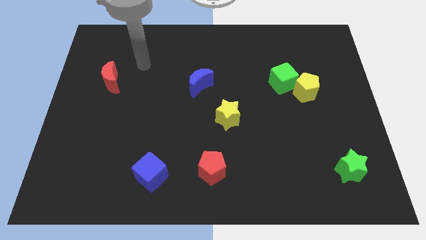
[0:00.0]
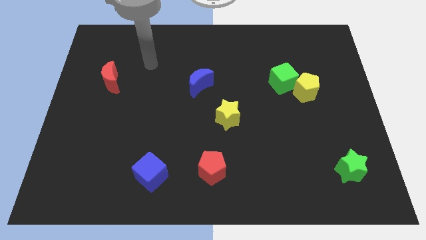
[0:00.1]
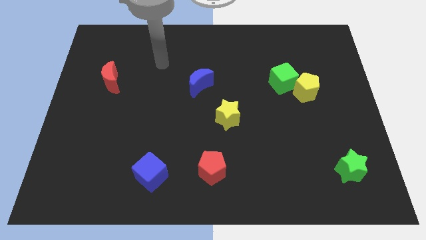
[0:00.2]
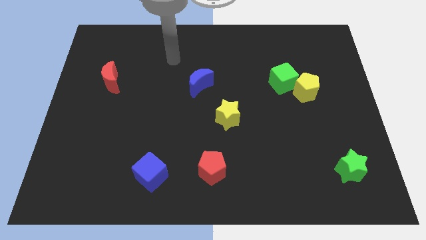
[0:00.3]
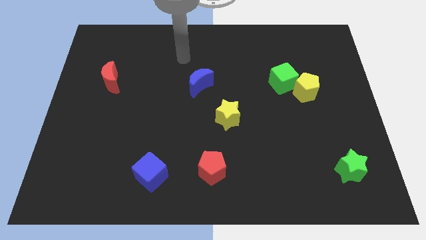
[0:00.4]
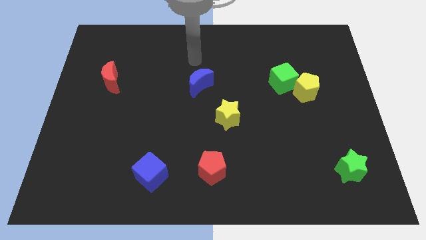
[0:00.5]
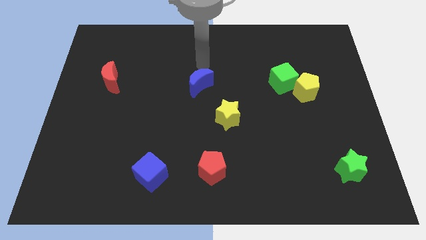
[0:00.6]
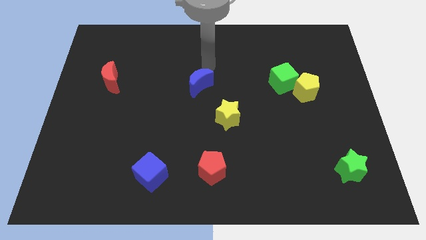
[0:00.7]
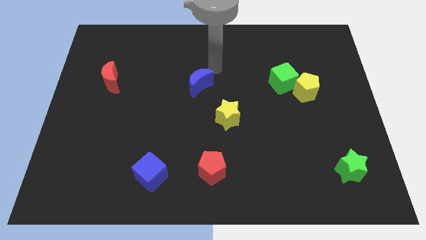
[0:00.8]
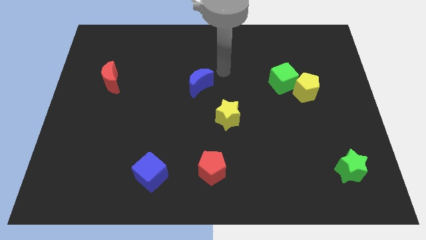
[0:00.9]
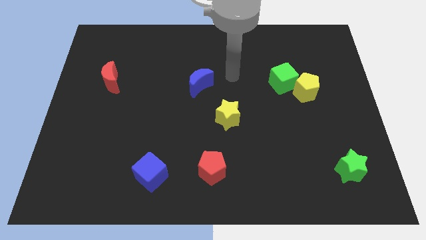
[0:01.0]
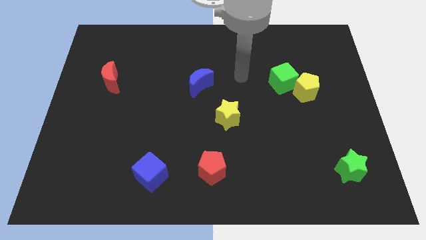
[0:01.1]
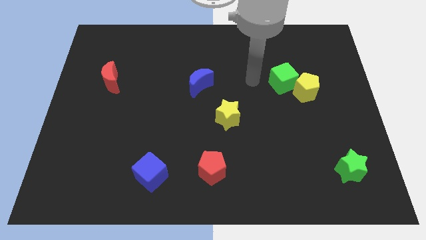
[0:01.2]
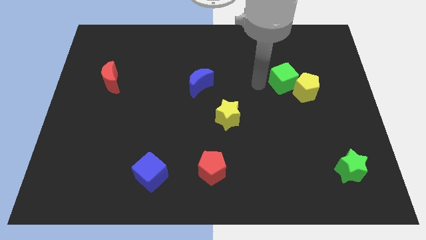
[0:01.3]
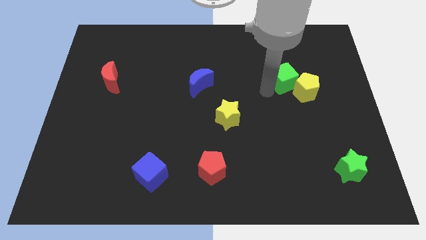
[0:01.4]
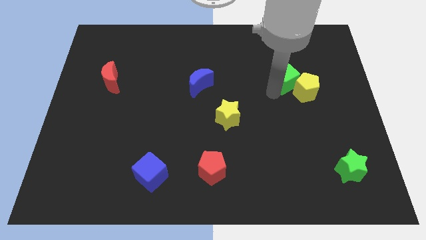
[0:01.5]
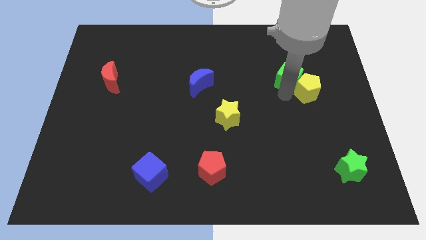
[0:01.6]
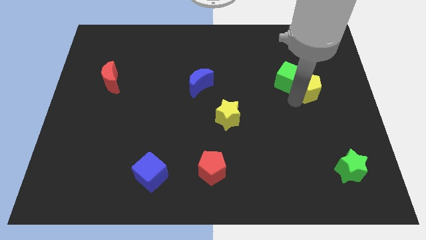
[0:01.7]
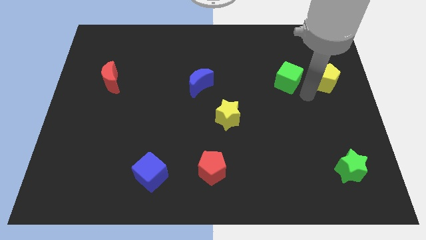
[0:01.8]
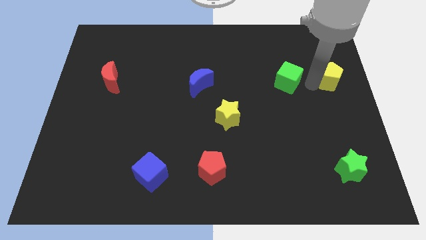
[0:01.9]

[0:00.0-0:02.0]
pull the green cube apart from the yellow pentagon

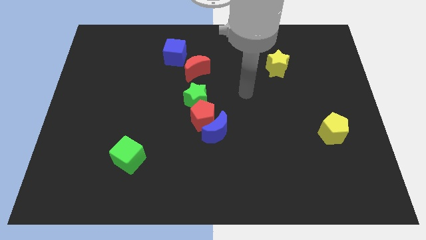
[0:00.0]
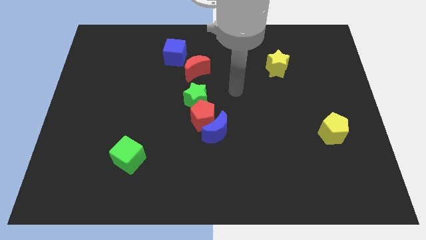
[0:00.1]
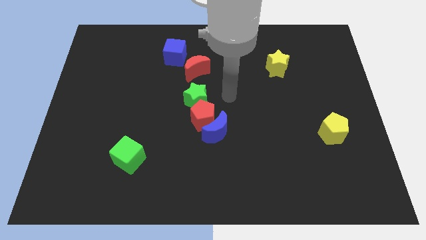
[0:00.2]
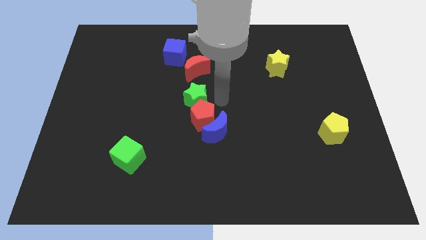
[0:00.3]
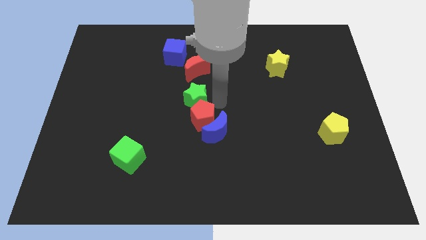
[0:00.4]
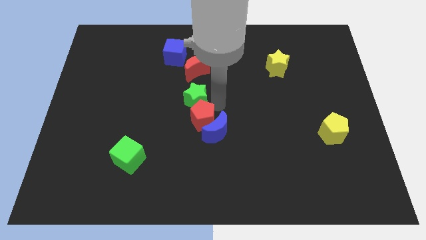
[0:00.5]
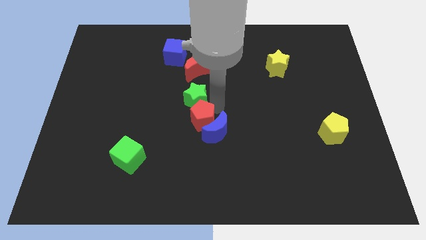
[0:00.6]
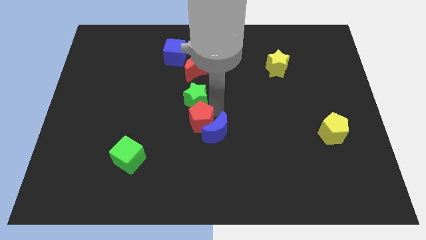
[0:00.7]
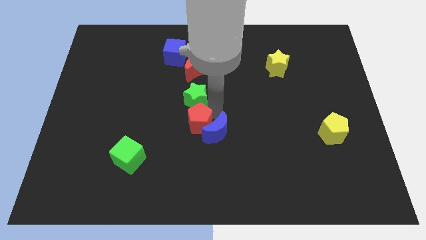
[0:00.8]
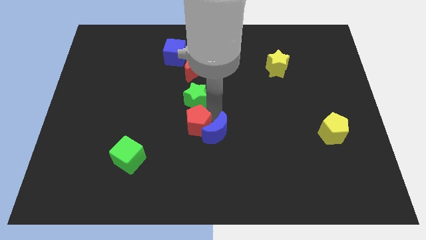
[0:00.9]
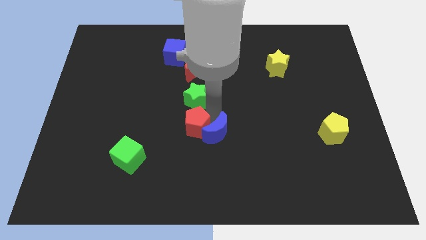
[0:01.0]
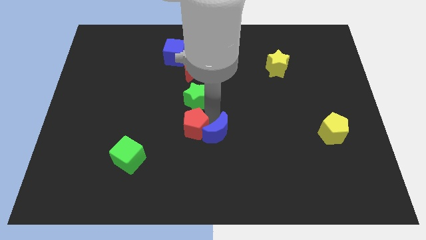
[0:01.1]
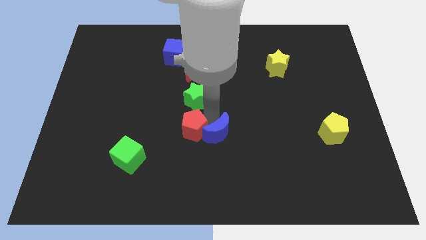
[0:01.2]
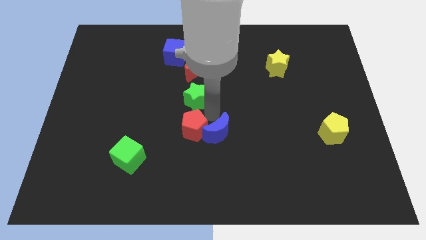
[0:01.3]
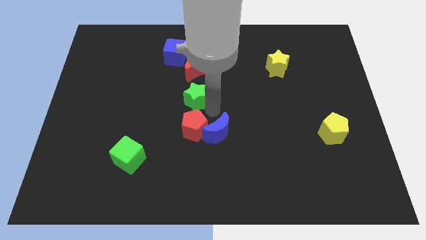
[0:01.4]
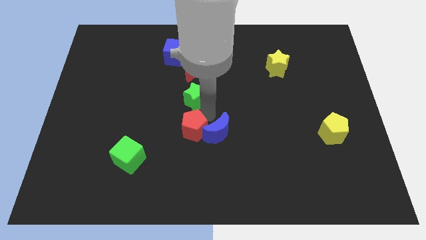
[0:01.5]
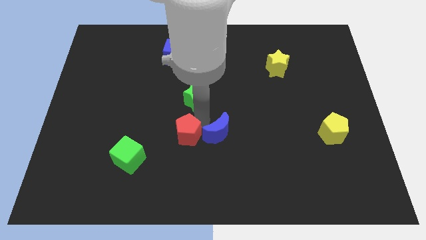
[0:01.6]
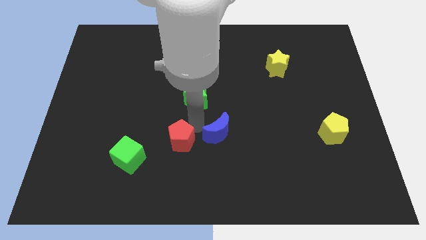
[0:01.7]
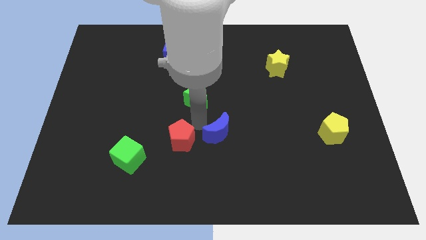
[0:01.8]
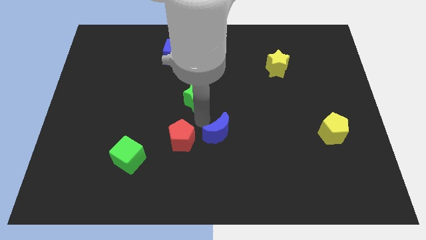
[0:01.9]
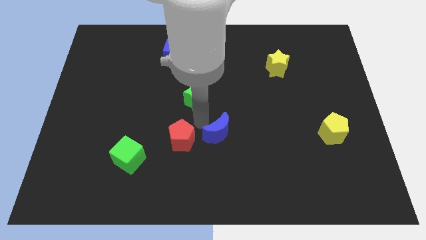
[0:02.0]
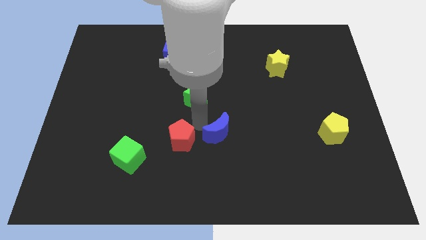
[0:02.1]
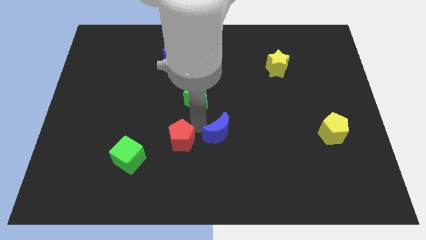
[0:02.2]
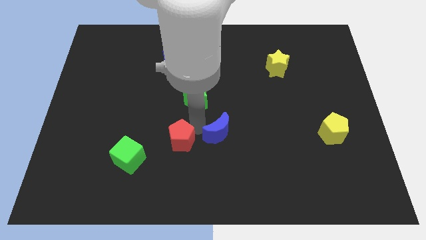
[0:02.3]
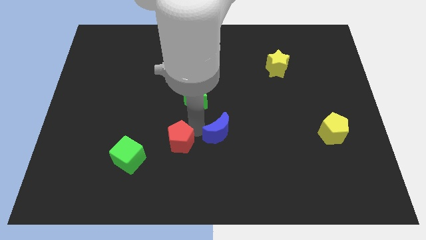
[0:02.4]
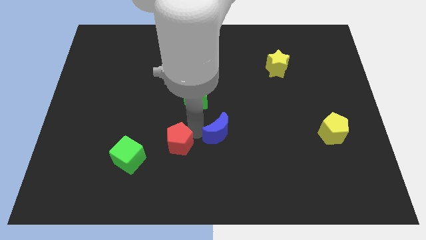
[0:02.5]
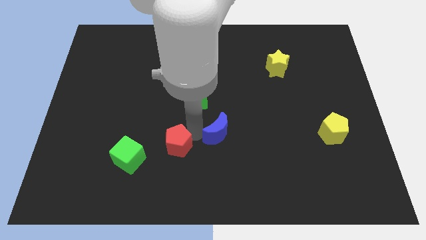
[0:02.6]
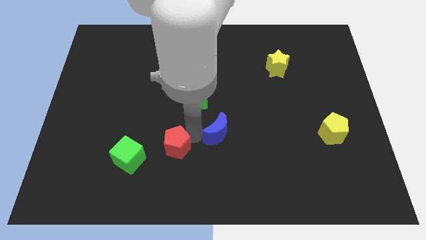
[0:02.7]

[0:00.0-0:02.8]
pull the red pentagon apart from the blue moon and green star

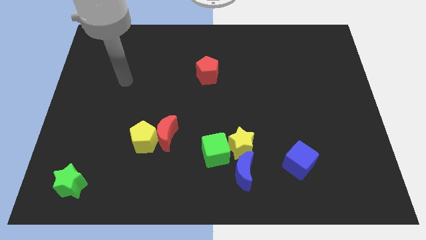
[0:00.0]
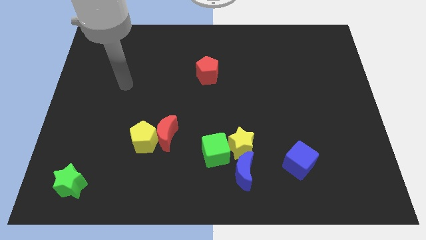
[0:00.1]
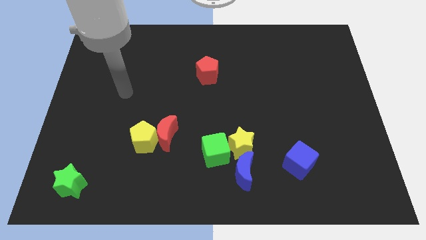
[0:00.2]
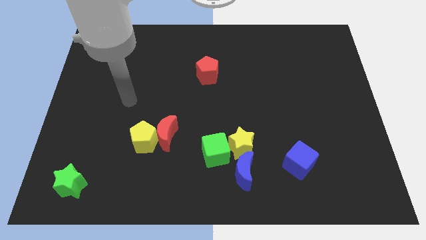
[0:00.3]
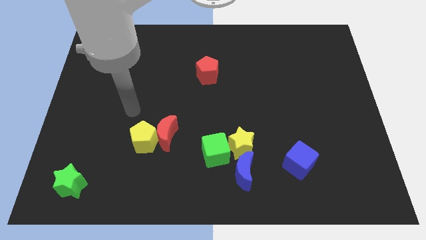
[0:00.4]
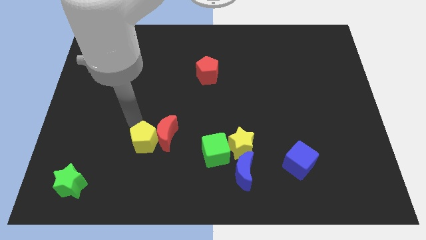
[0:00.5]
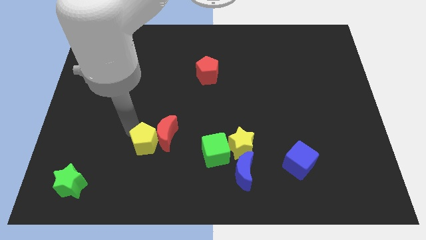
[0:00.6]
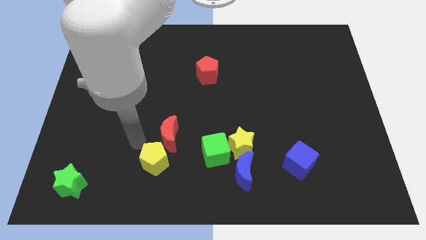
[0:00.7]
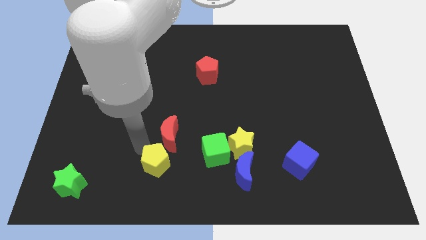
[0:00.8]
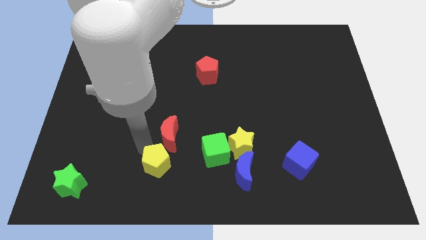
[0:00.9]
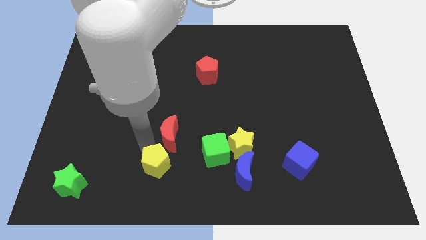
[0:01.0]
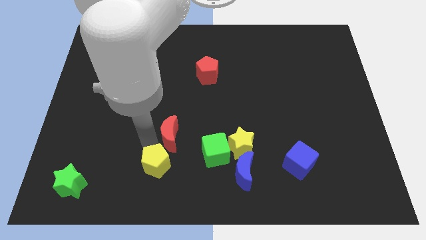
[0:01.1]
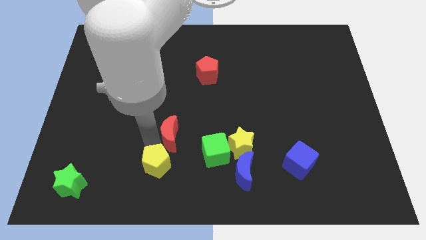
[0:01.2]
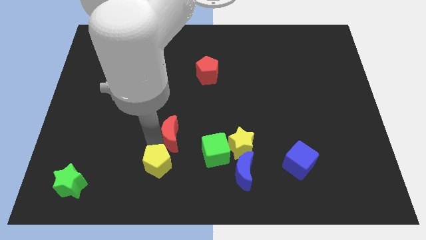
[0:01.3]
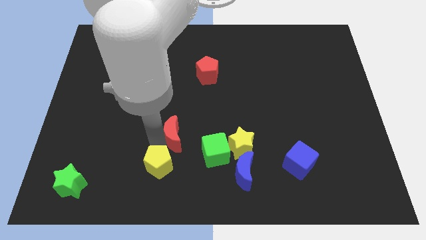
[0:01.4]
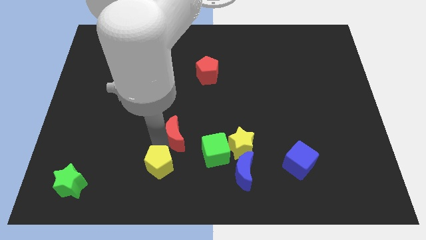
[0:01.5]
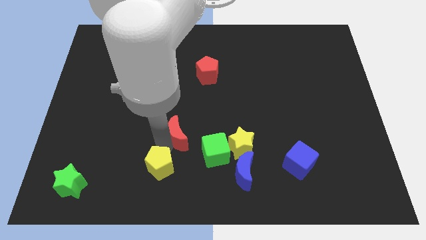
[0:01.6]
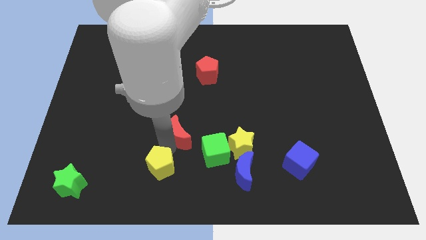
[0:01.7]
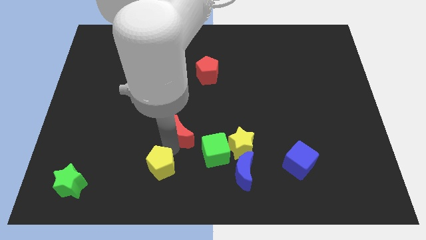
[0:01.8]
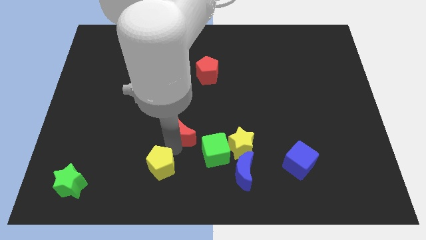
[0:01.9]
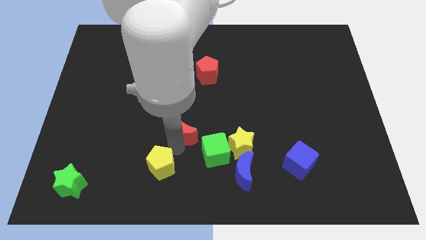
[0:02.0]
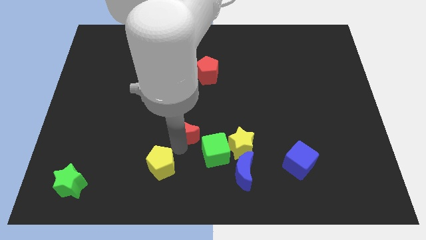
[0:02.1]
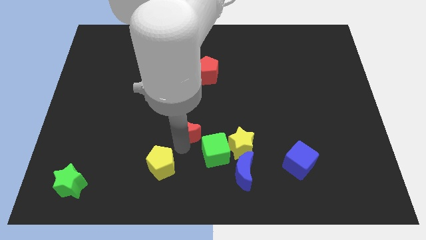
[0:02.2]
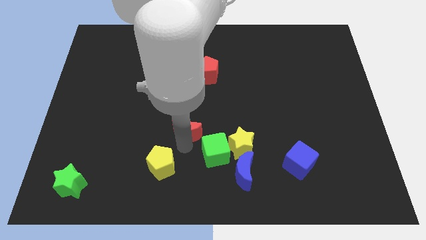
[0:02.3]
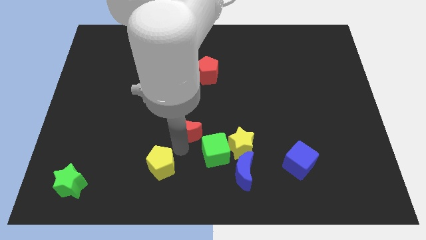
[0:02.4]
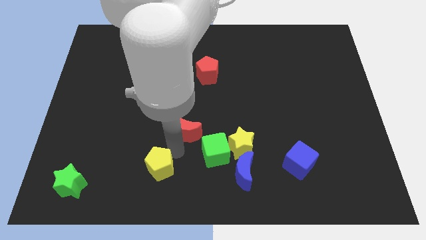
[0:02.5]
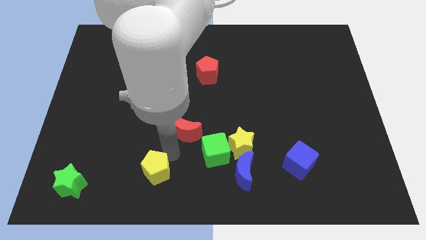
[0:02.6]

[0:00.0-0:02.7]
pull the red moon apart from the yellow pentagon

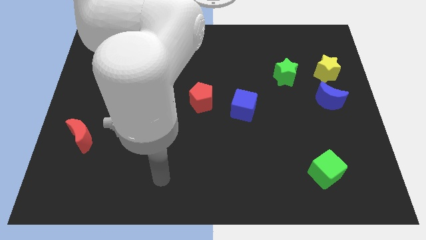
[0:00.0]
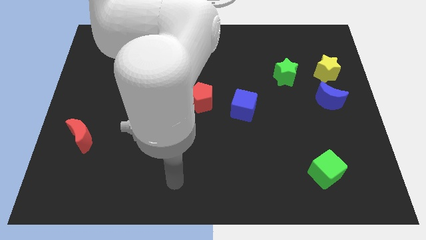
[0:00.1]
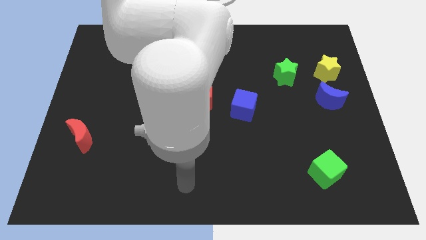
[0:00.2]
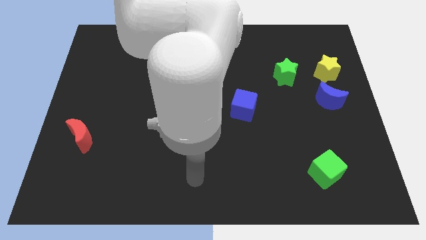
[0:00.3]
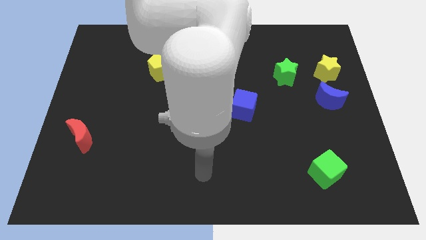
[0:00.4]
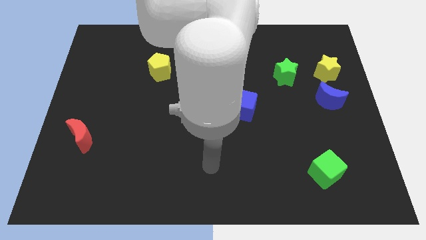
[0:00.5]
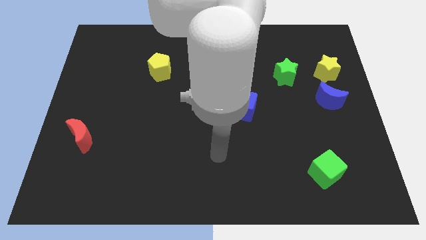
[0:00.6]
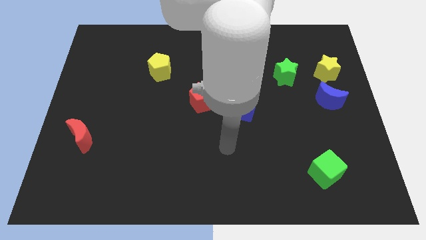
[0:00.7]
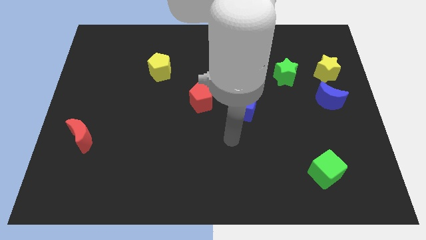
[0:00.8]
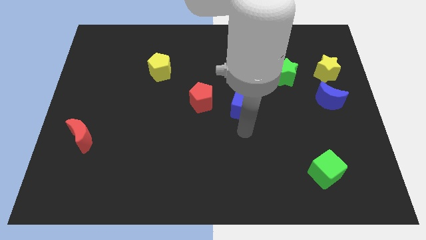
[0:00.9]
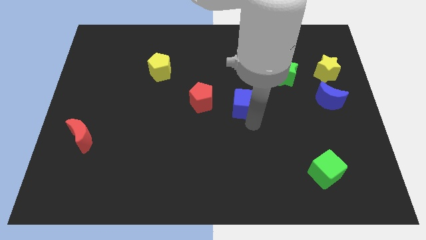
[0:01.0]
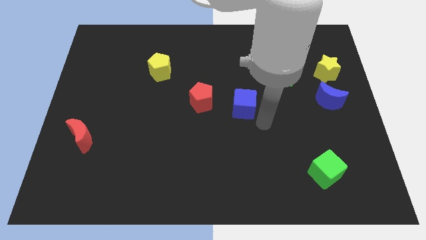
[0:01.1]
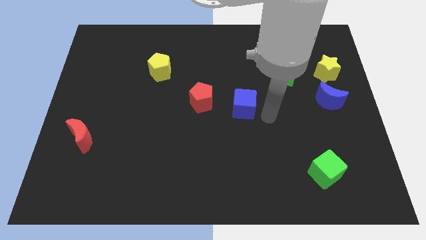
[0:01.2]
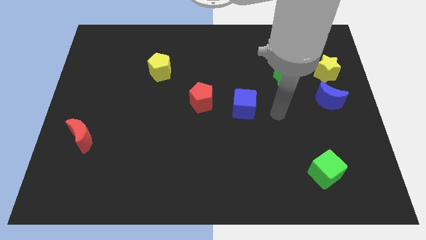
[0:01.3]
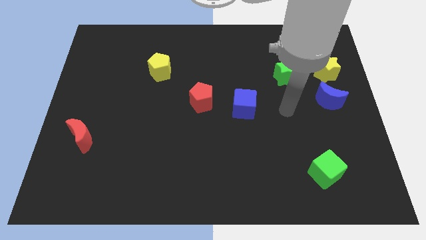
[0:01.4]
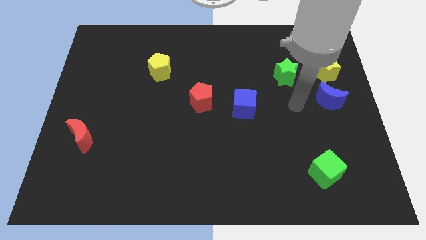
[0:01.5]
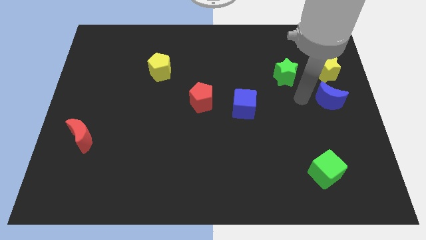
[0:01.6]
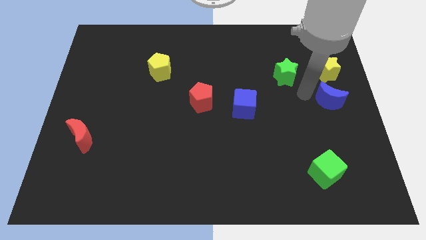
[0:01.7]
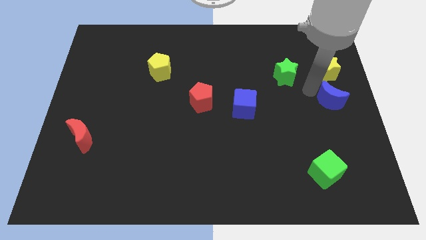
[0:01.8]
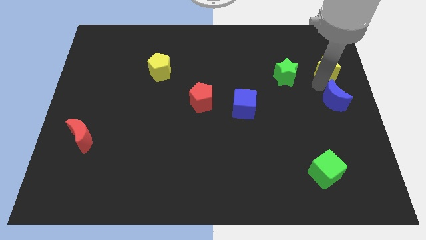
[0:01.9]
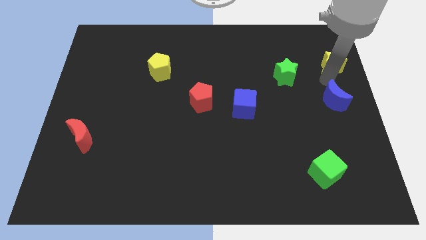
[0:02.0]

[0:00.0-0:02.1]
separate the blue moon from the yellow star
